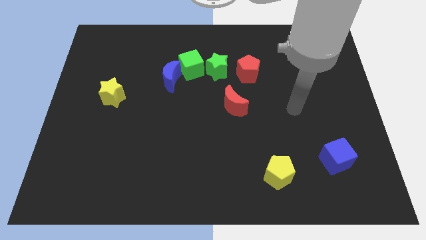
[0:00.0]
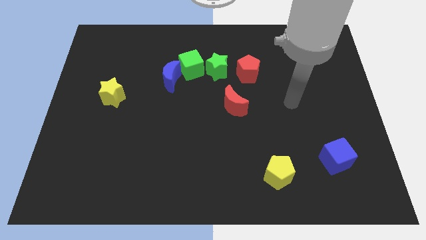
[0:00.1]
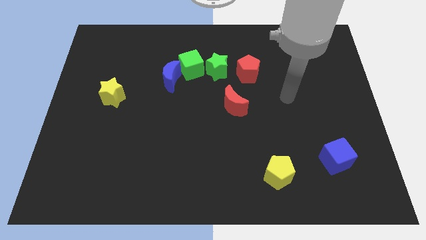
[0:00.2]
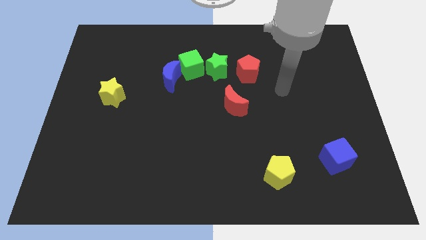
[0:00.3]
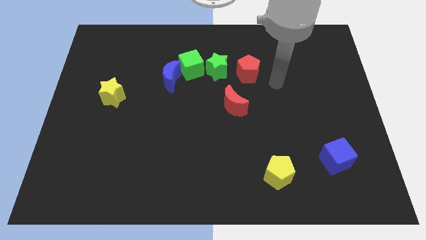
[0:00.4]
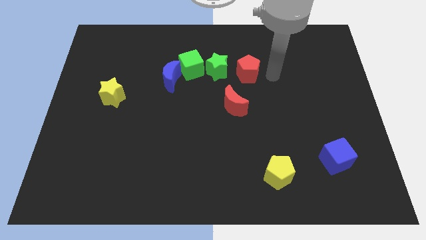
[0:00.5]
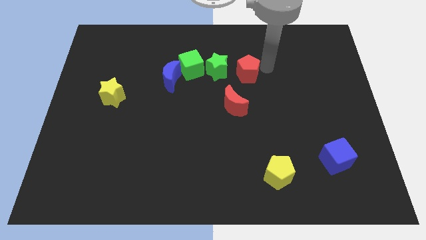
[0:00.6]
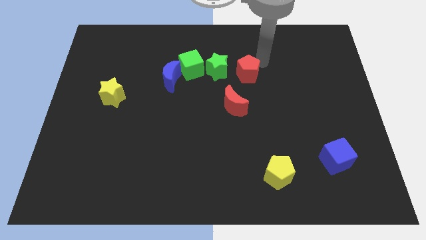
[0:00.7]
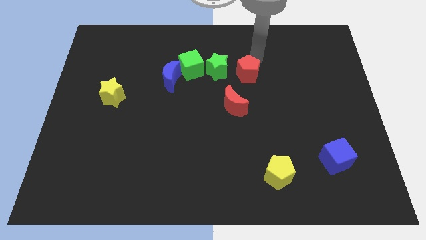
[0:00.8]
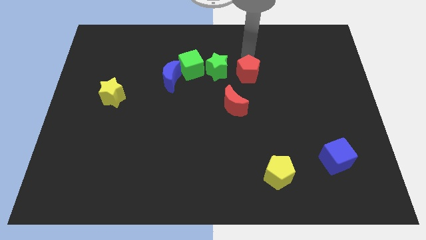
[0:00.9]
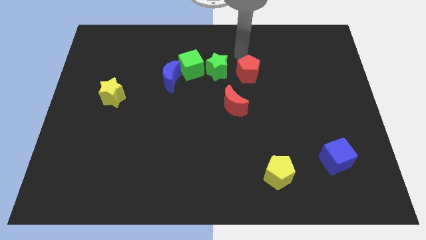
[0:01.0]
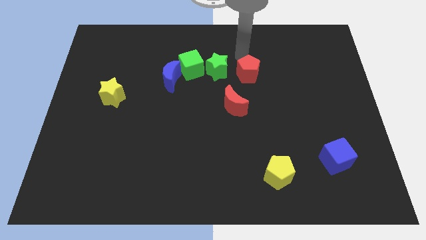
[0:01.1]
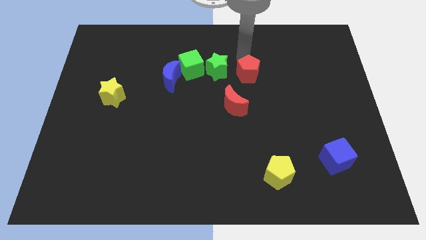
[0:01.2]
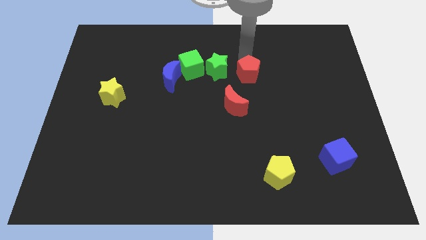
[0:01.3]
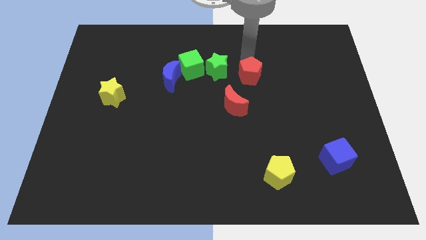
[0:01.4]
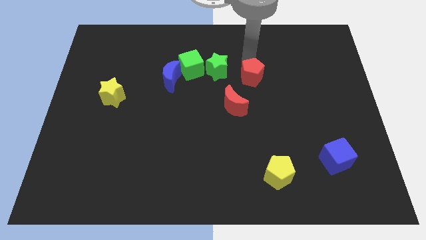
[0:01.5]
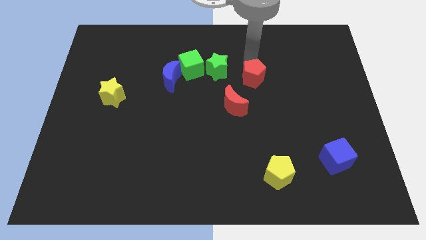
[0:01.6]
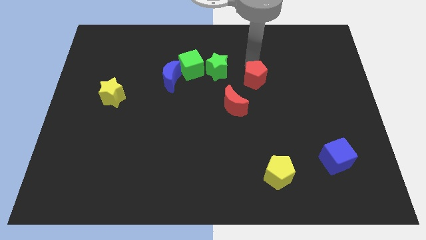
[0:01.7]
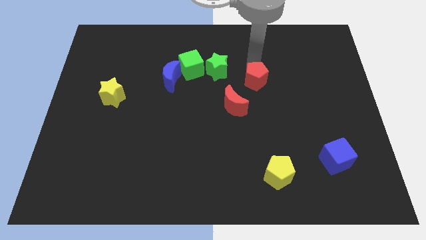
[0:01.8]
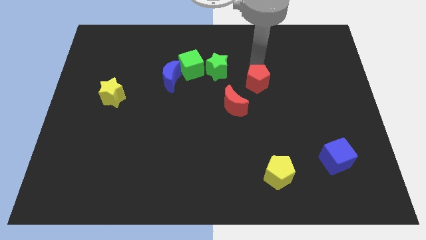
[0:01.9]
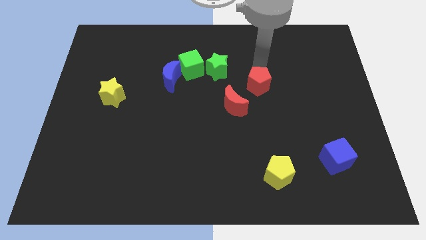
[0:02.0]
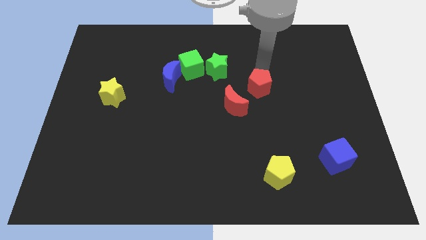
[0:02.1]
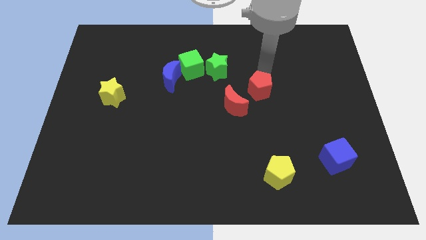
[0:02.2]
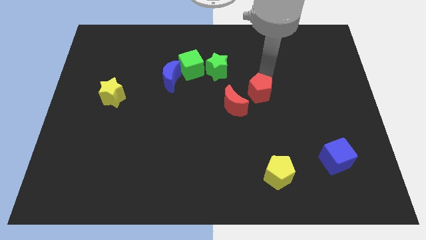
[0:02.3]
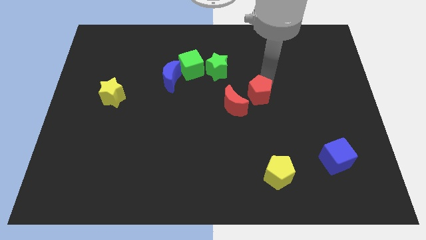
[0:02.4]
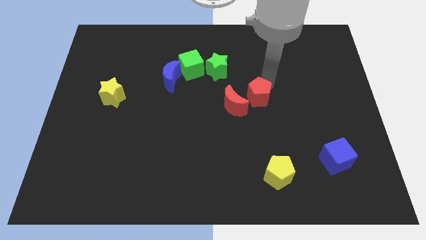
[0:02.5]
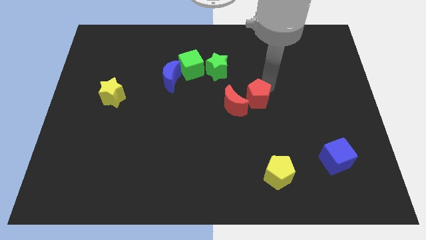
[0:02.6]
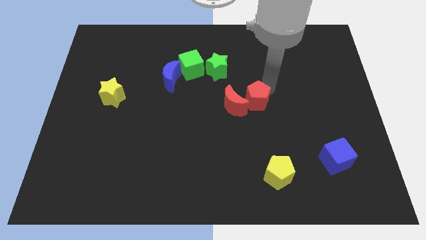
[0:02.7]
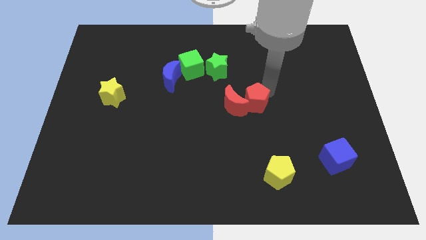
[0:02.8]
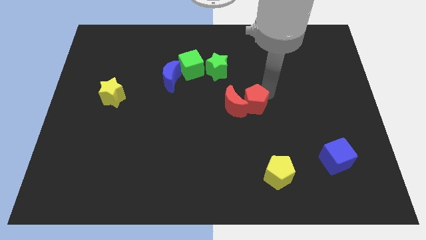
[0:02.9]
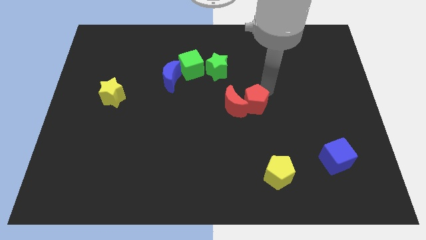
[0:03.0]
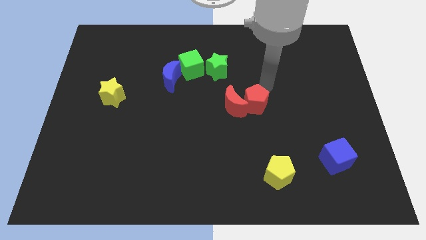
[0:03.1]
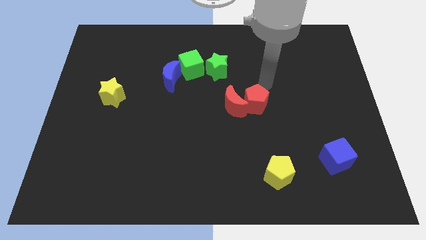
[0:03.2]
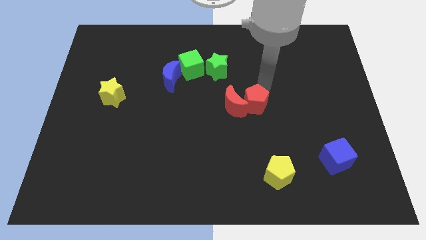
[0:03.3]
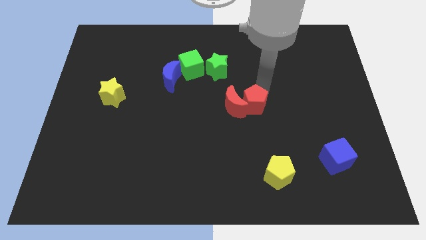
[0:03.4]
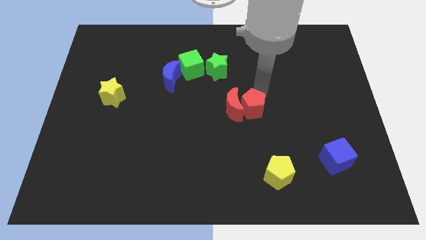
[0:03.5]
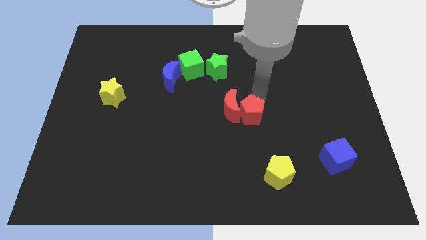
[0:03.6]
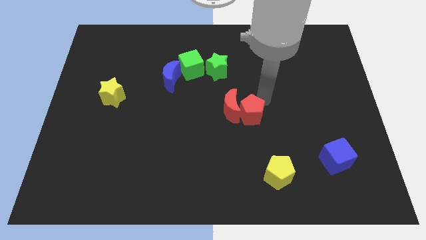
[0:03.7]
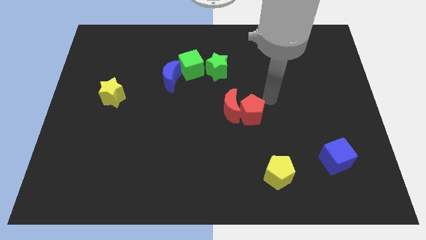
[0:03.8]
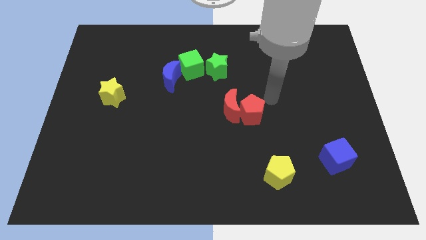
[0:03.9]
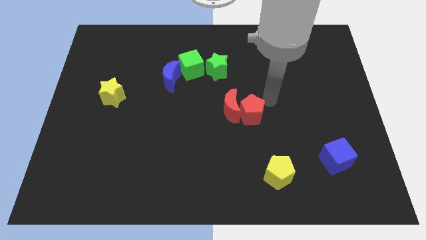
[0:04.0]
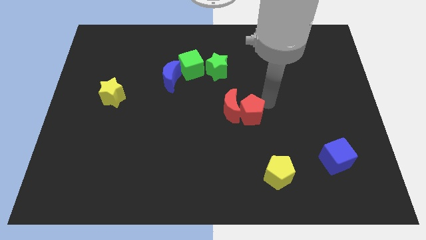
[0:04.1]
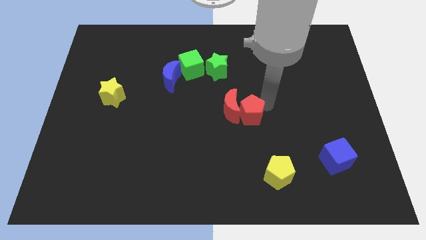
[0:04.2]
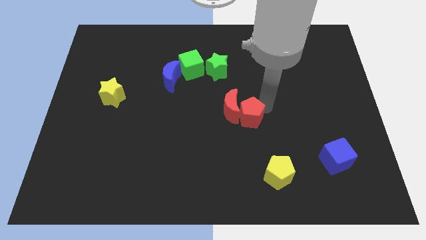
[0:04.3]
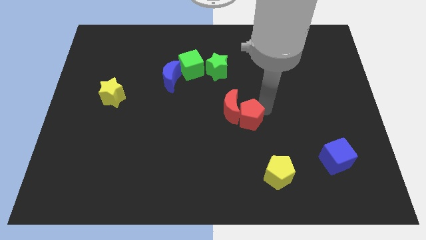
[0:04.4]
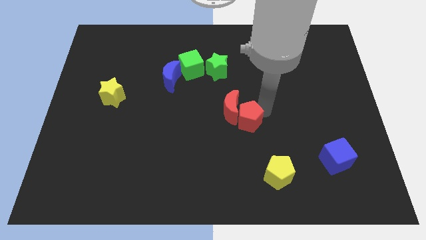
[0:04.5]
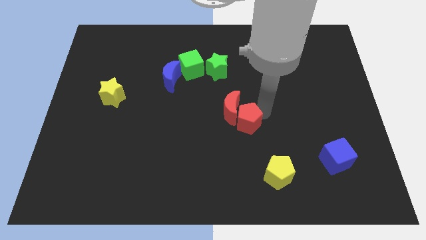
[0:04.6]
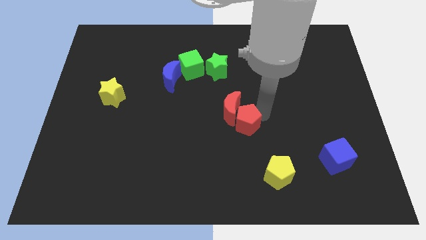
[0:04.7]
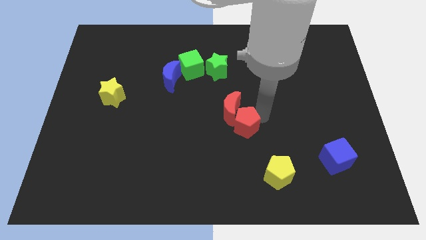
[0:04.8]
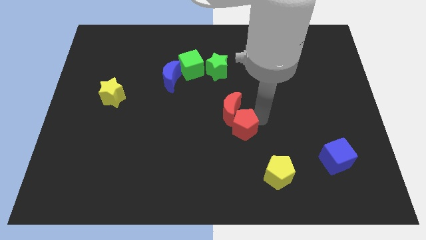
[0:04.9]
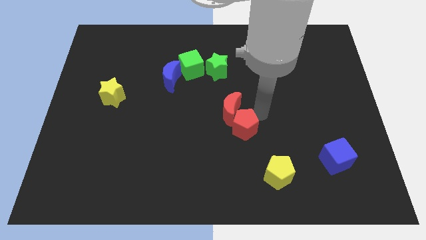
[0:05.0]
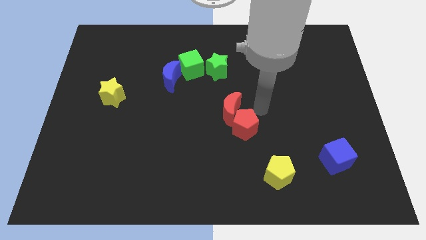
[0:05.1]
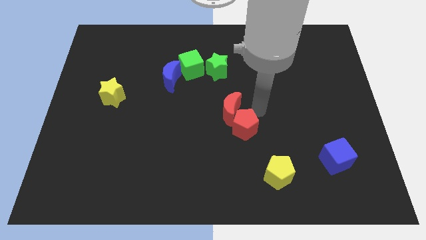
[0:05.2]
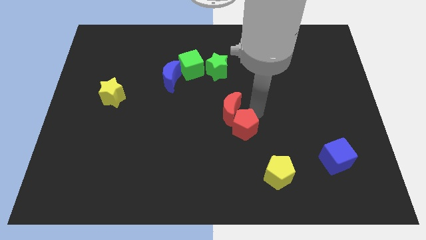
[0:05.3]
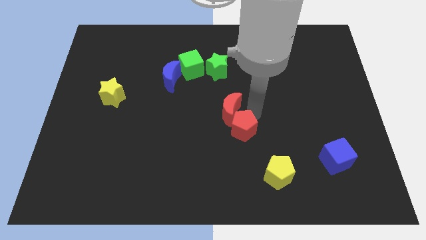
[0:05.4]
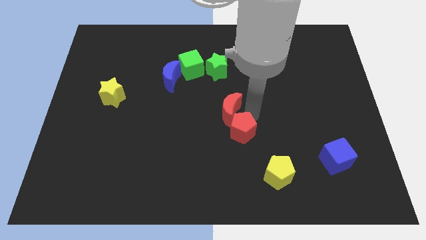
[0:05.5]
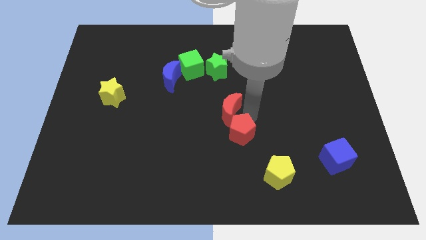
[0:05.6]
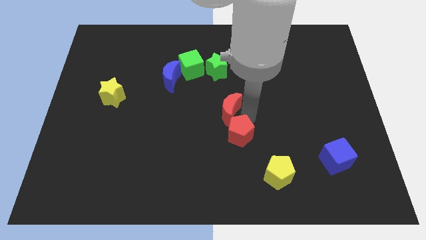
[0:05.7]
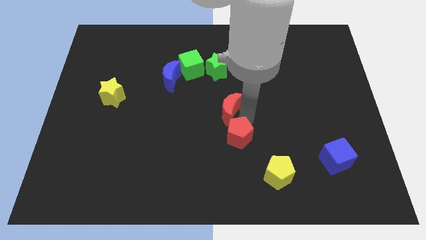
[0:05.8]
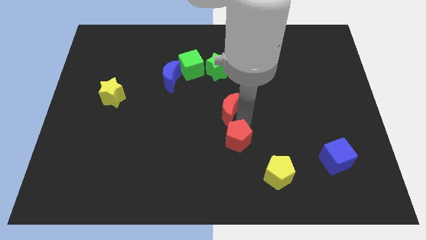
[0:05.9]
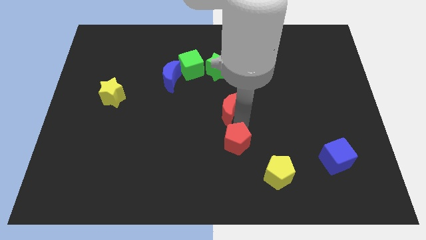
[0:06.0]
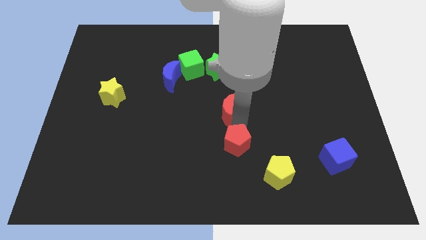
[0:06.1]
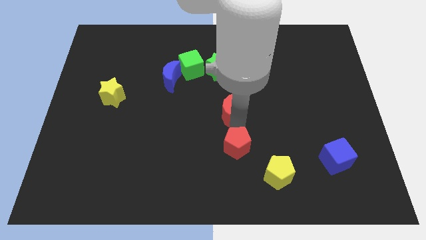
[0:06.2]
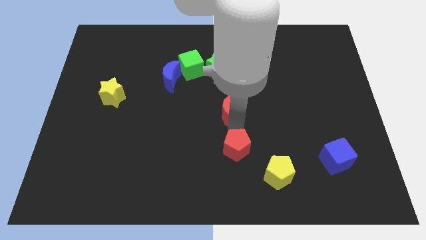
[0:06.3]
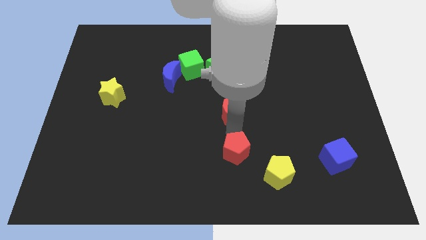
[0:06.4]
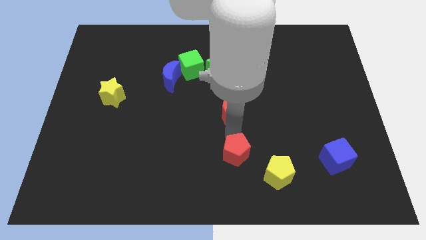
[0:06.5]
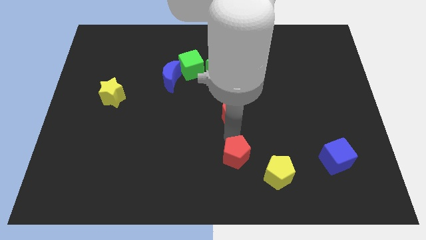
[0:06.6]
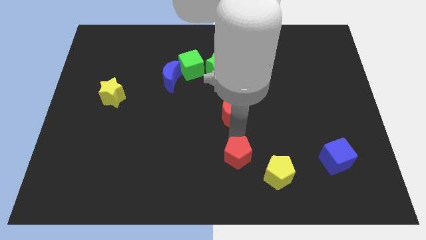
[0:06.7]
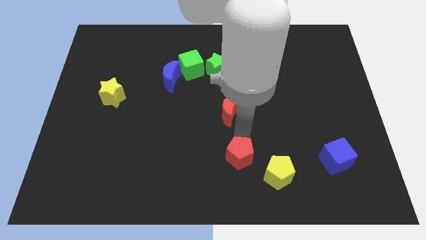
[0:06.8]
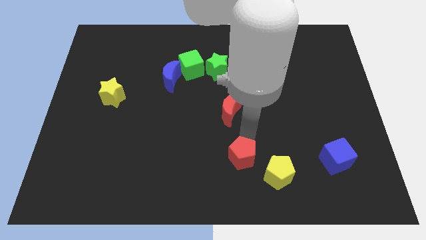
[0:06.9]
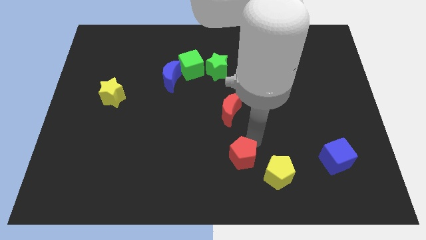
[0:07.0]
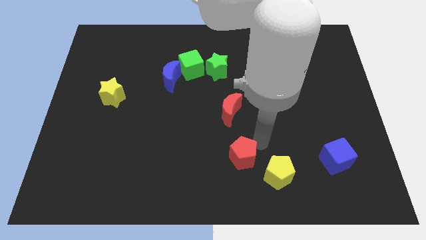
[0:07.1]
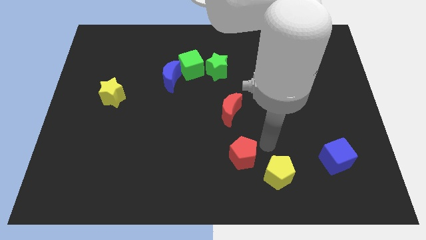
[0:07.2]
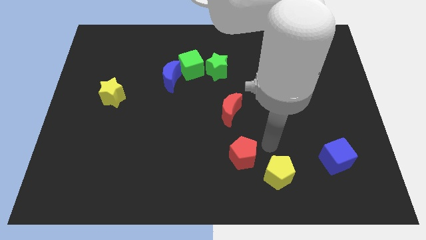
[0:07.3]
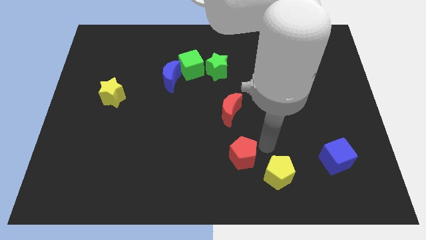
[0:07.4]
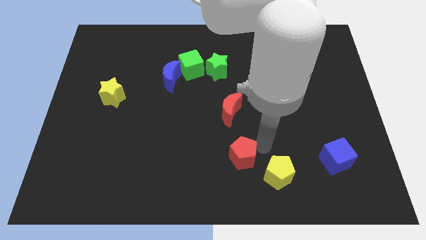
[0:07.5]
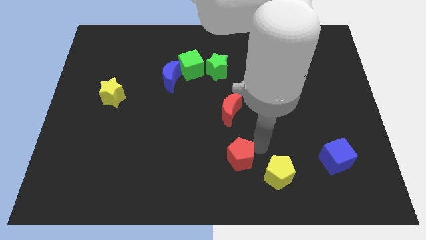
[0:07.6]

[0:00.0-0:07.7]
move the red pentagon to the bottom
